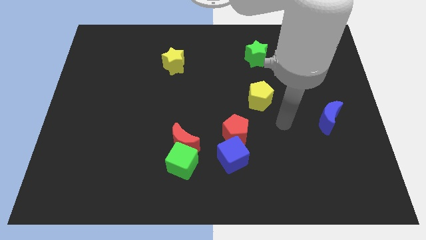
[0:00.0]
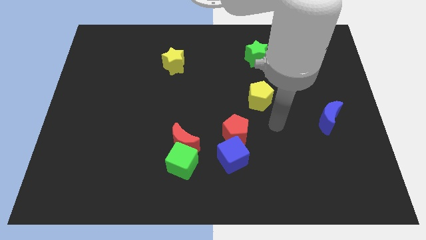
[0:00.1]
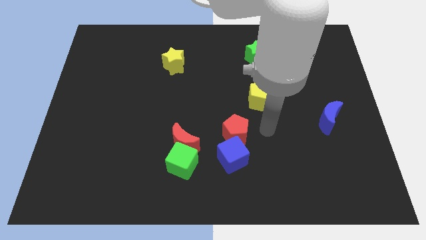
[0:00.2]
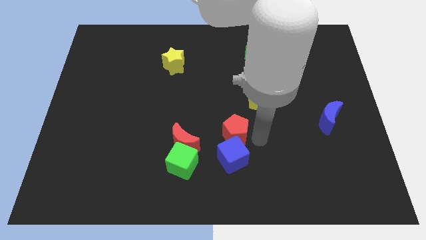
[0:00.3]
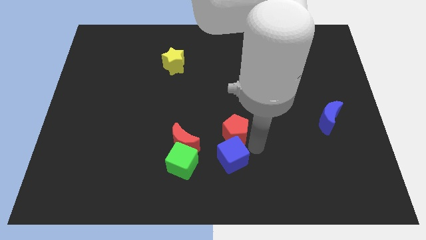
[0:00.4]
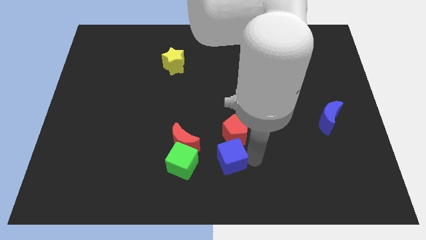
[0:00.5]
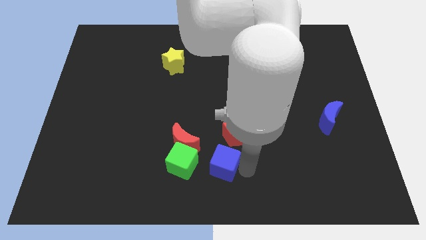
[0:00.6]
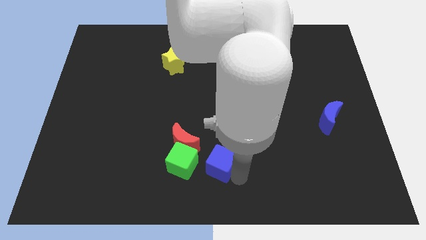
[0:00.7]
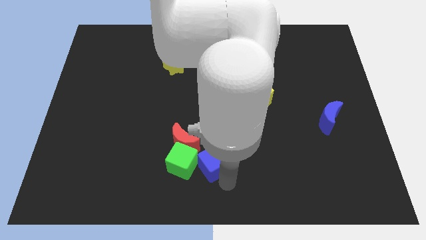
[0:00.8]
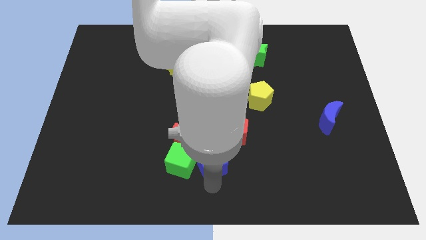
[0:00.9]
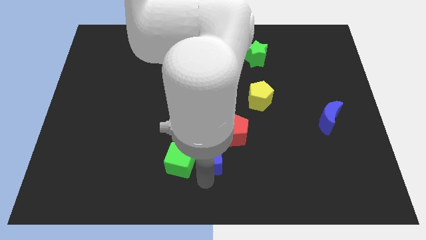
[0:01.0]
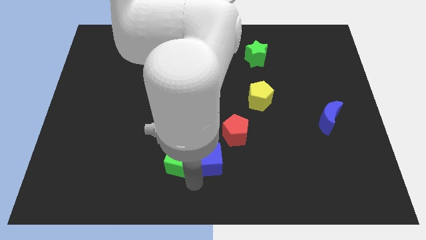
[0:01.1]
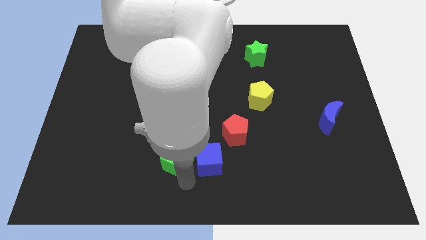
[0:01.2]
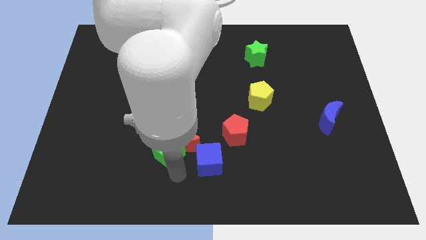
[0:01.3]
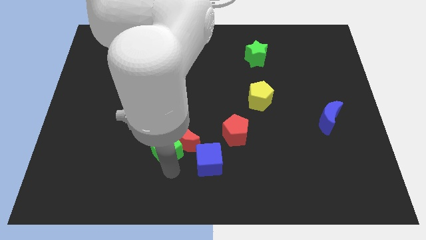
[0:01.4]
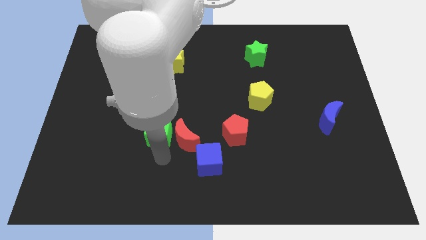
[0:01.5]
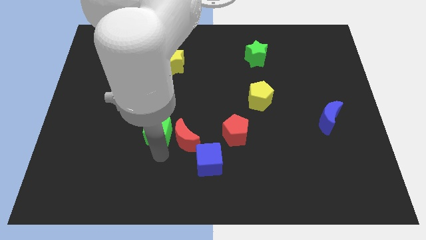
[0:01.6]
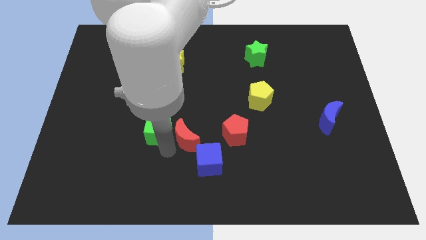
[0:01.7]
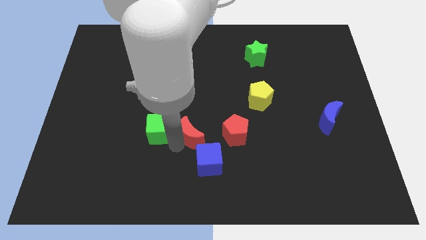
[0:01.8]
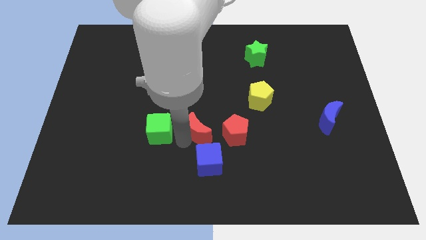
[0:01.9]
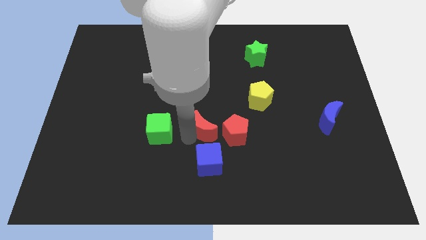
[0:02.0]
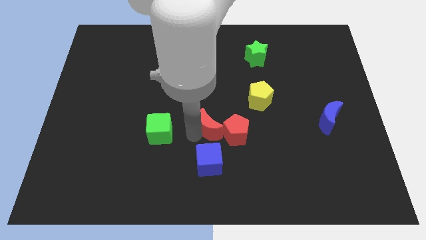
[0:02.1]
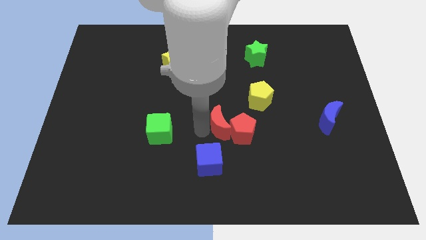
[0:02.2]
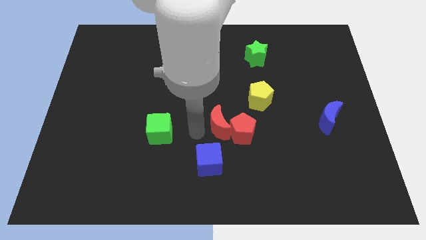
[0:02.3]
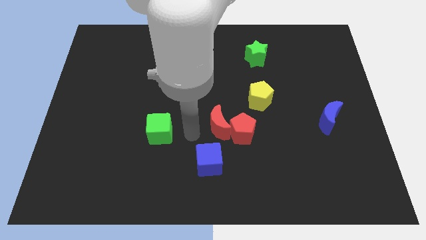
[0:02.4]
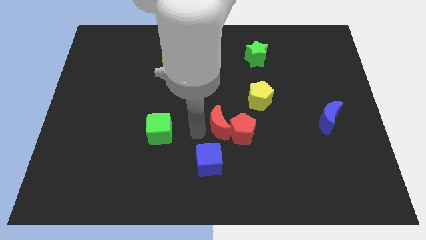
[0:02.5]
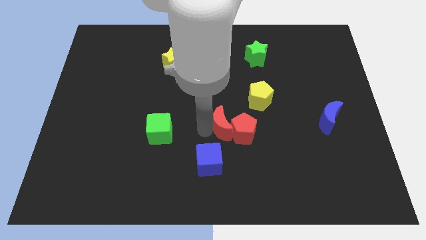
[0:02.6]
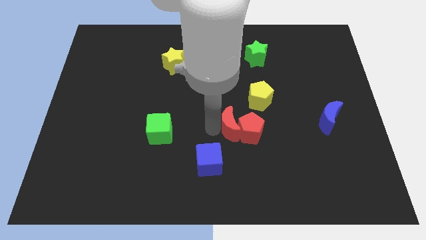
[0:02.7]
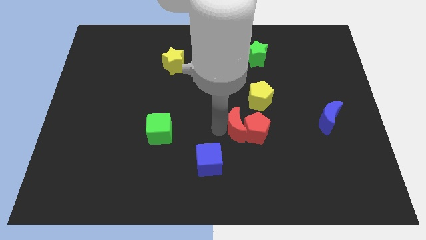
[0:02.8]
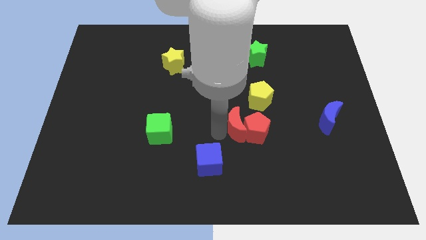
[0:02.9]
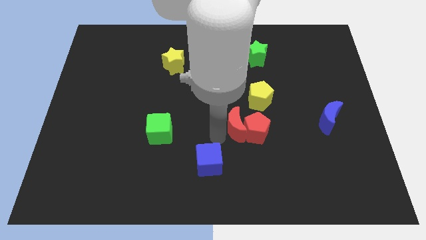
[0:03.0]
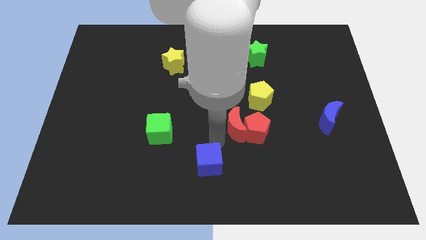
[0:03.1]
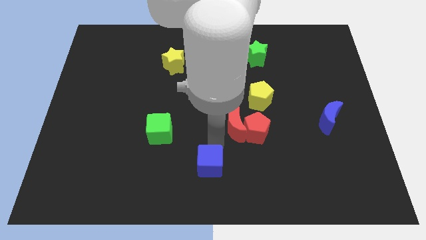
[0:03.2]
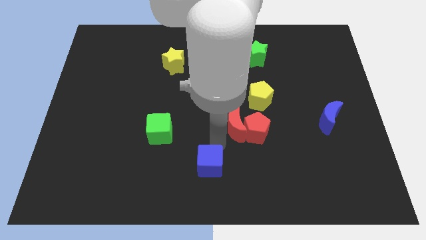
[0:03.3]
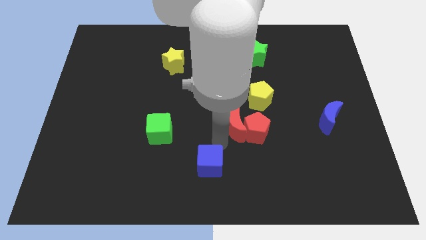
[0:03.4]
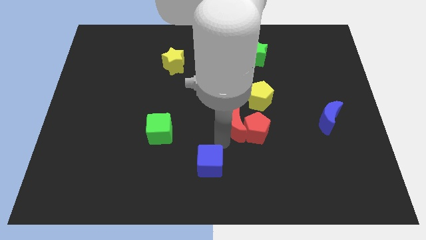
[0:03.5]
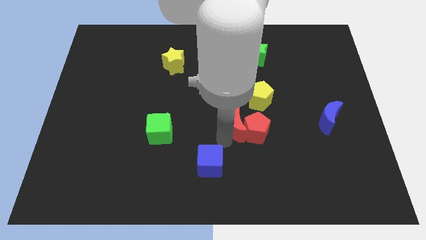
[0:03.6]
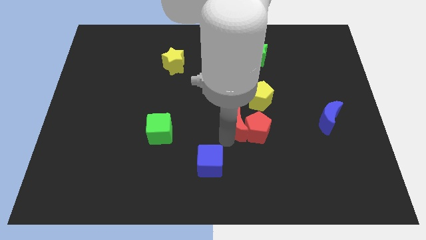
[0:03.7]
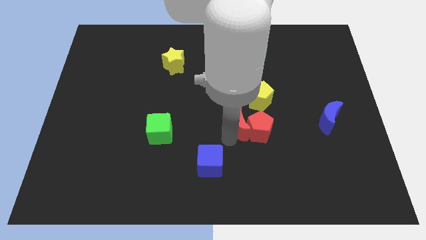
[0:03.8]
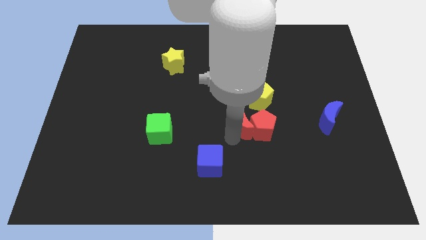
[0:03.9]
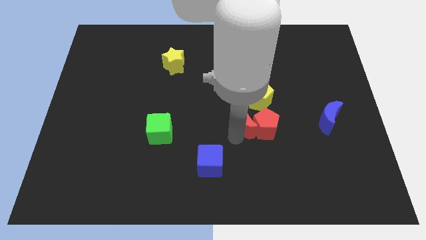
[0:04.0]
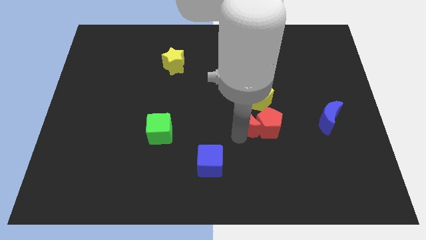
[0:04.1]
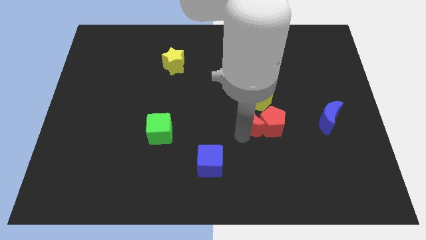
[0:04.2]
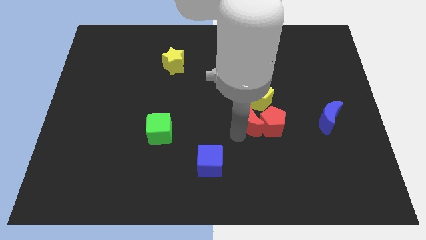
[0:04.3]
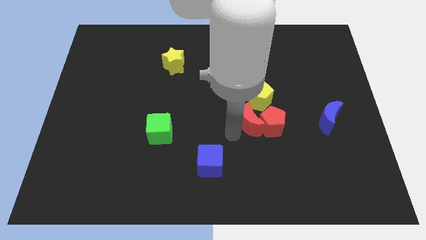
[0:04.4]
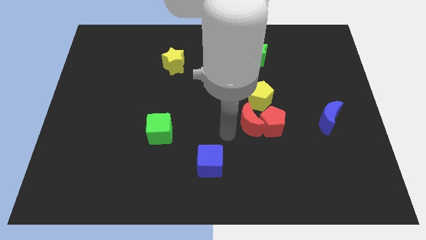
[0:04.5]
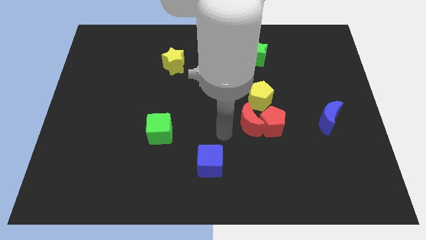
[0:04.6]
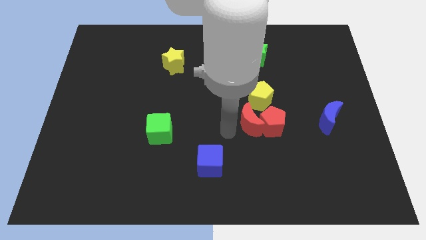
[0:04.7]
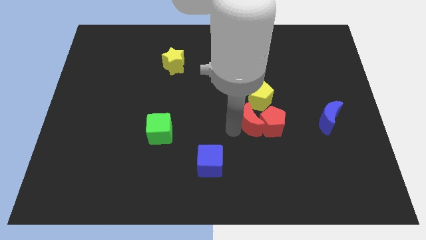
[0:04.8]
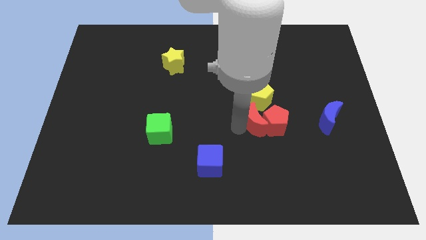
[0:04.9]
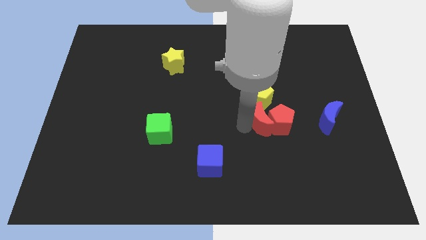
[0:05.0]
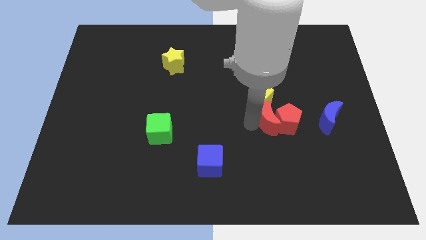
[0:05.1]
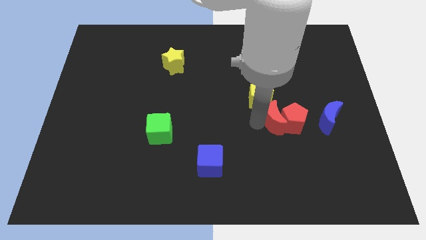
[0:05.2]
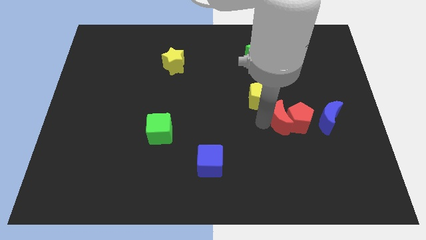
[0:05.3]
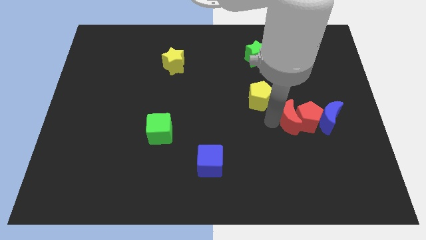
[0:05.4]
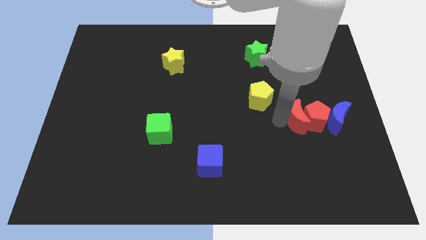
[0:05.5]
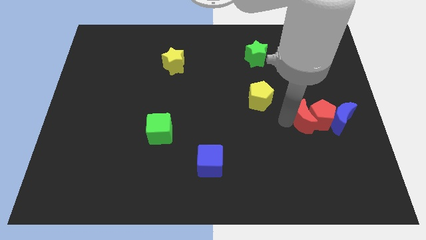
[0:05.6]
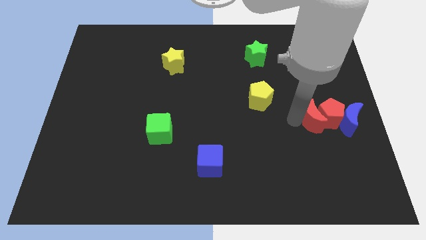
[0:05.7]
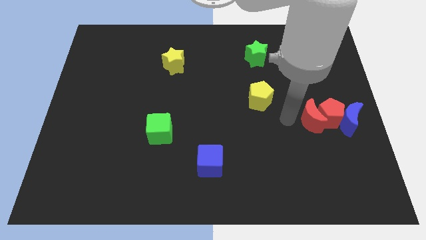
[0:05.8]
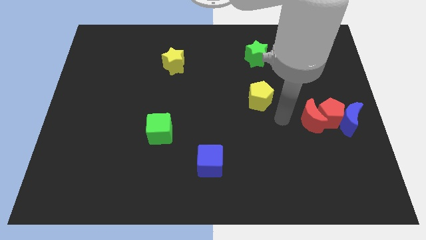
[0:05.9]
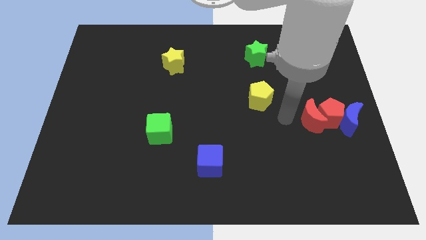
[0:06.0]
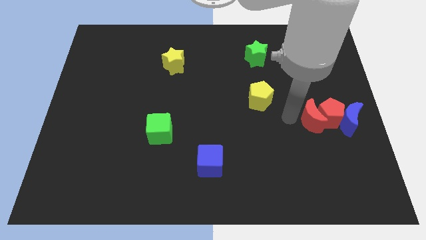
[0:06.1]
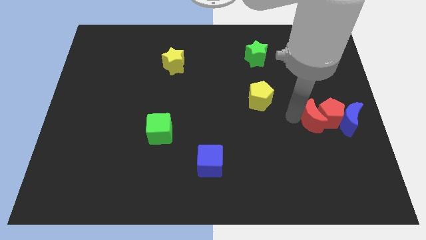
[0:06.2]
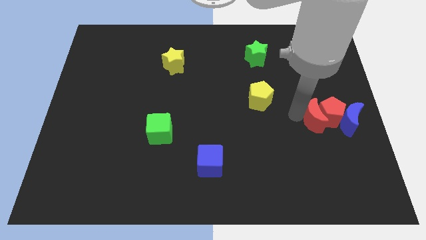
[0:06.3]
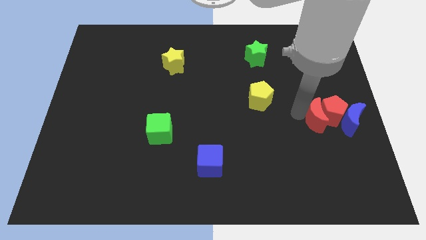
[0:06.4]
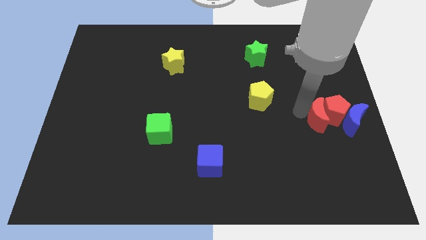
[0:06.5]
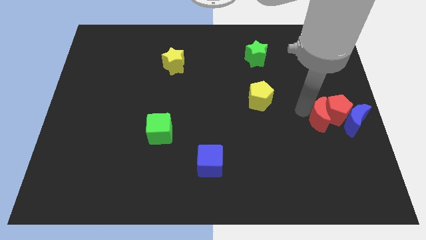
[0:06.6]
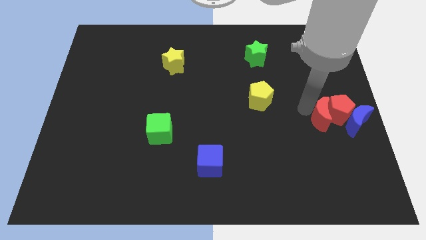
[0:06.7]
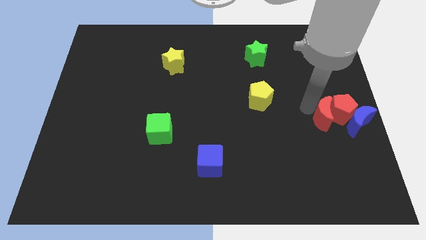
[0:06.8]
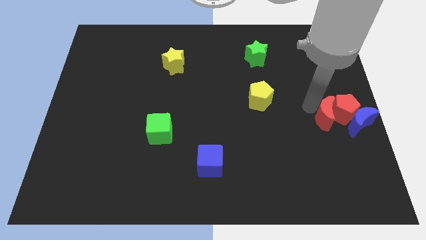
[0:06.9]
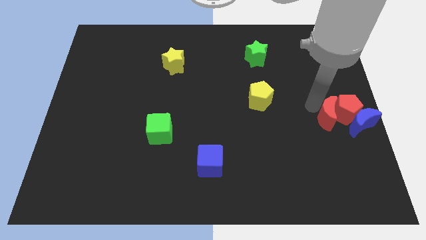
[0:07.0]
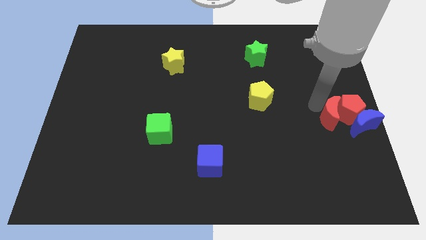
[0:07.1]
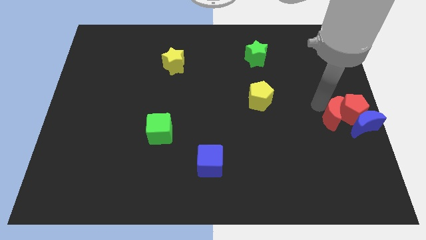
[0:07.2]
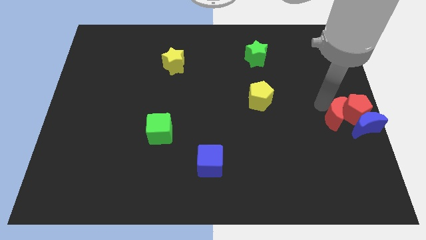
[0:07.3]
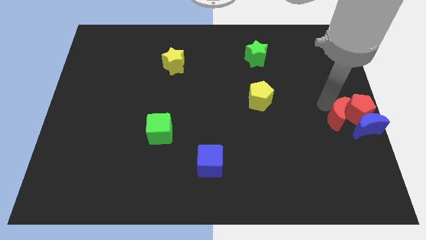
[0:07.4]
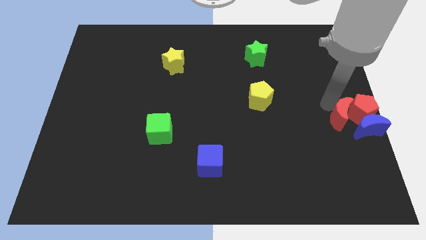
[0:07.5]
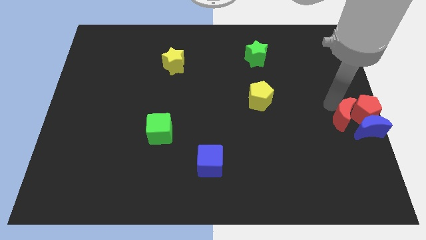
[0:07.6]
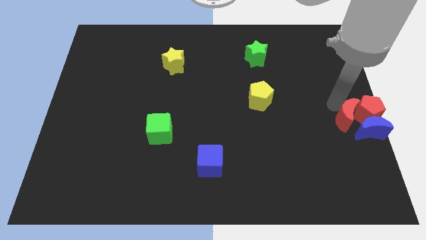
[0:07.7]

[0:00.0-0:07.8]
move the red moon close to the blue moon
